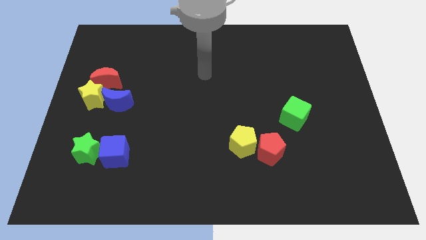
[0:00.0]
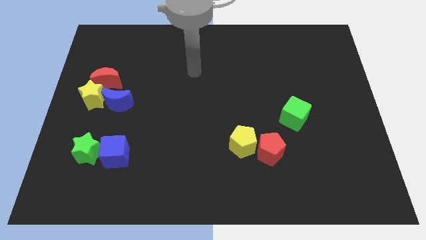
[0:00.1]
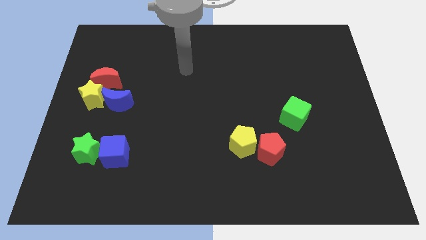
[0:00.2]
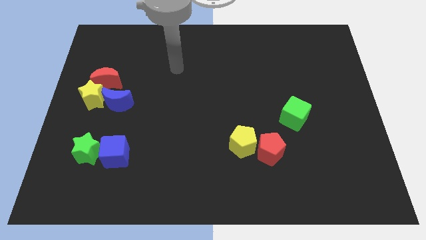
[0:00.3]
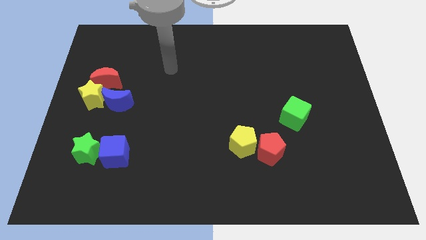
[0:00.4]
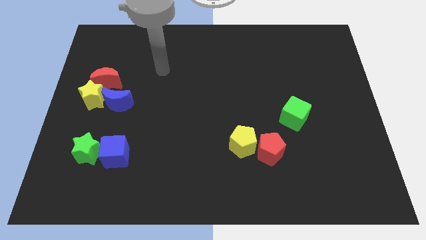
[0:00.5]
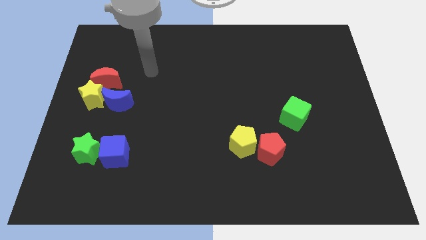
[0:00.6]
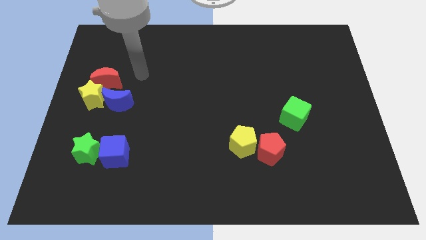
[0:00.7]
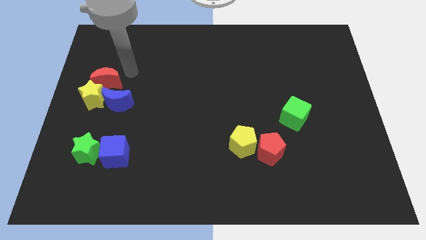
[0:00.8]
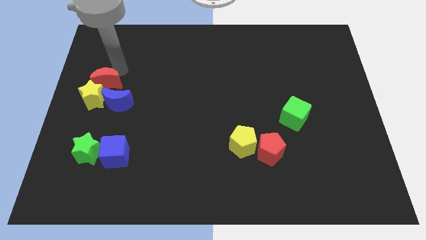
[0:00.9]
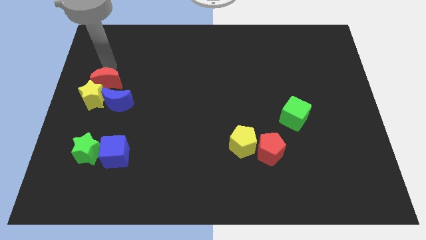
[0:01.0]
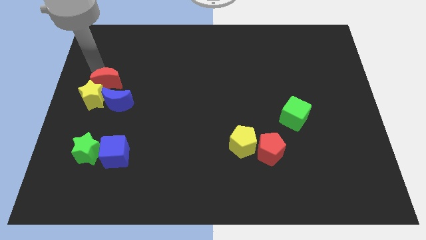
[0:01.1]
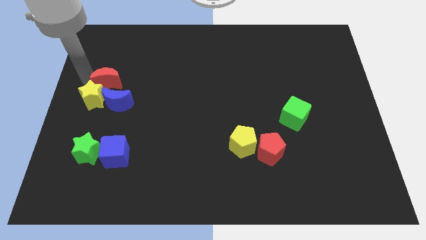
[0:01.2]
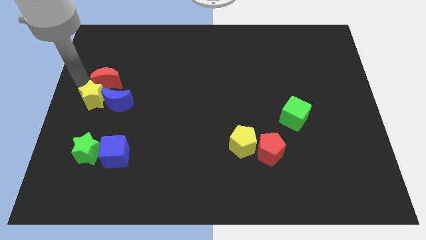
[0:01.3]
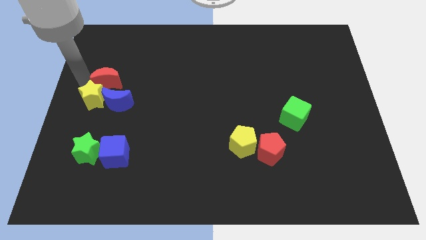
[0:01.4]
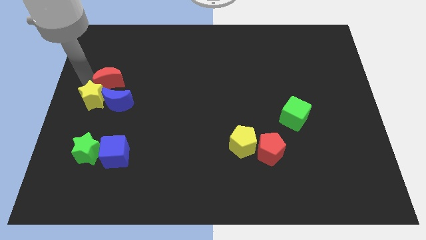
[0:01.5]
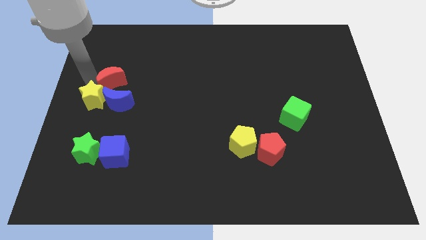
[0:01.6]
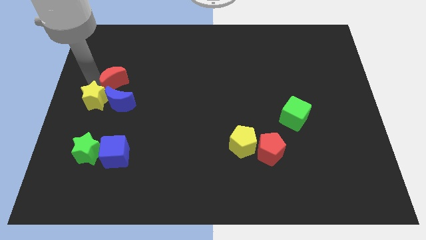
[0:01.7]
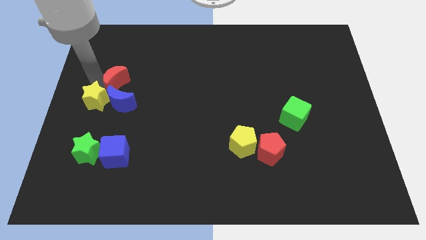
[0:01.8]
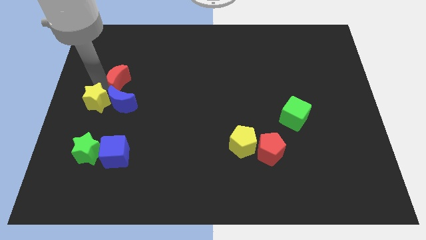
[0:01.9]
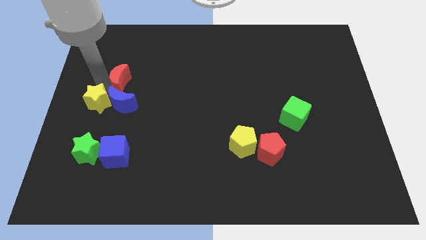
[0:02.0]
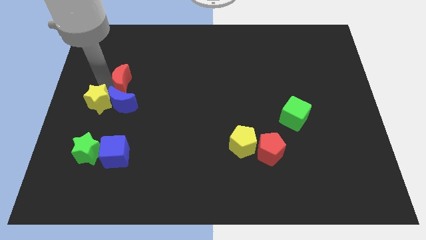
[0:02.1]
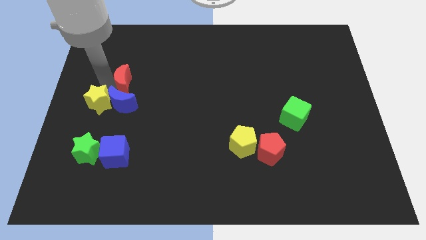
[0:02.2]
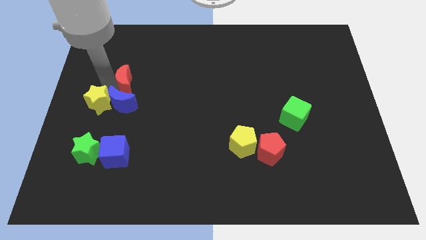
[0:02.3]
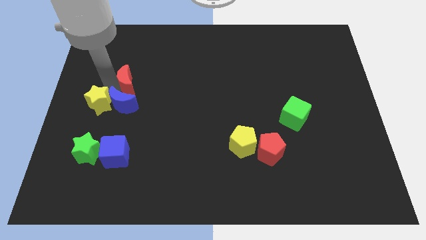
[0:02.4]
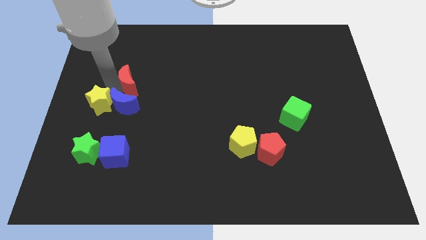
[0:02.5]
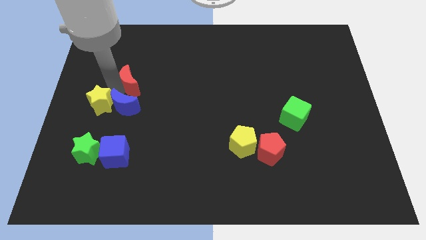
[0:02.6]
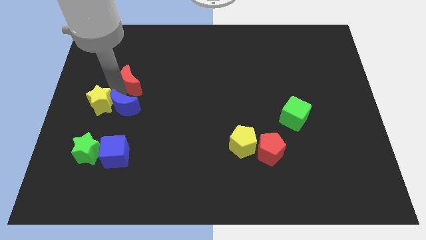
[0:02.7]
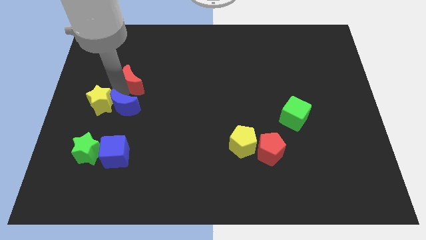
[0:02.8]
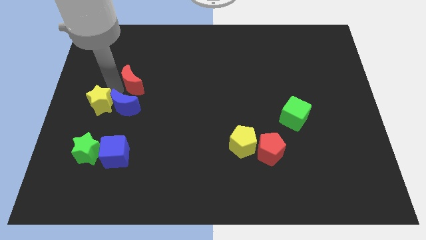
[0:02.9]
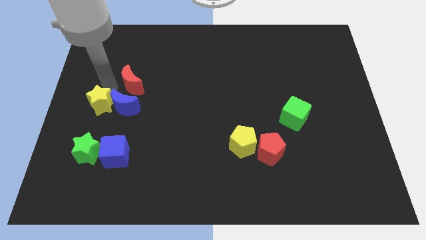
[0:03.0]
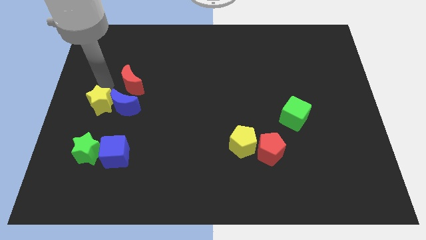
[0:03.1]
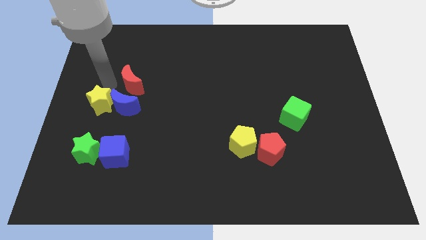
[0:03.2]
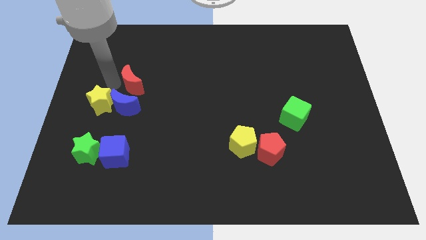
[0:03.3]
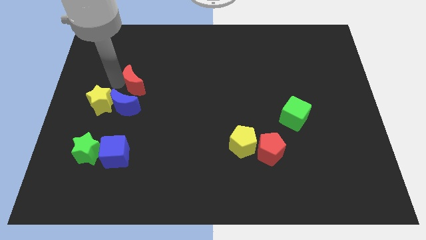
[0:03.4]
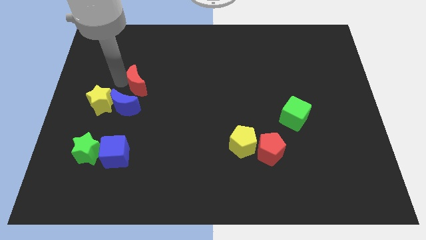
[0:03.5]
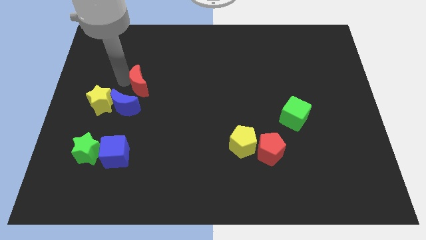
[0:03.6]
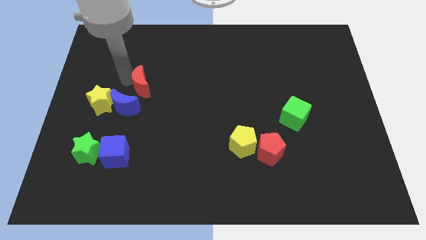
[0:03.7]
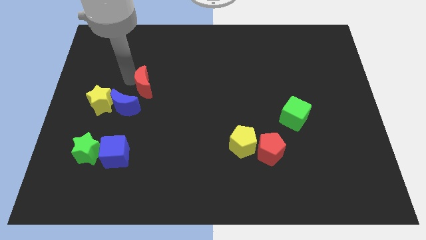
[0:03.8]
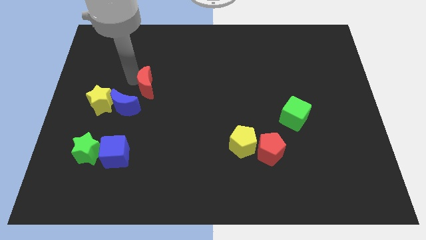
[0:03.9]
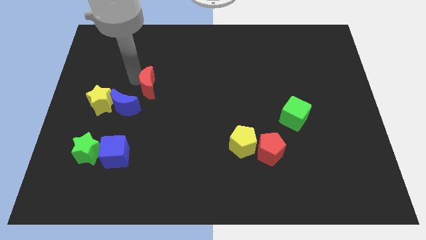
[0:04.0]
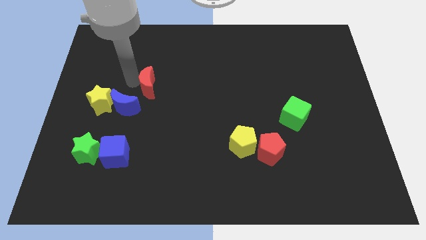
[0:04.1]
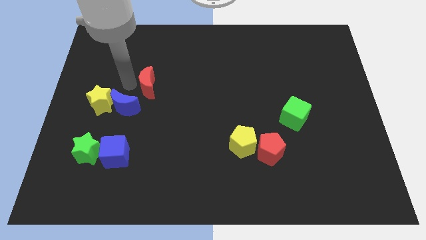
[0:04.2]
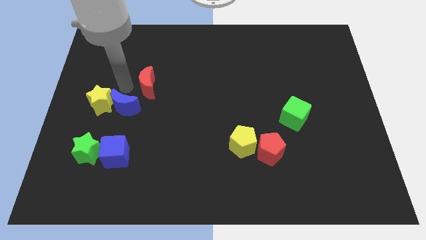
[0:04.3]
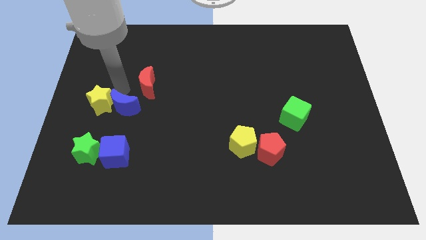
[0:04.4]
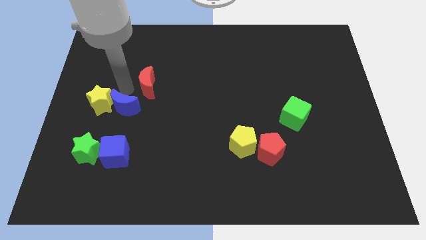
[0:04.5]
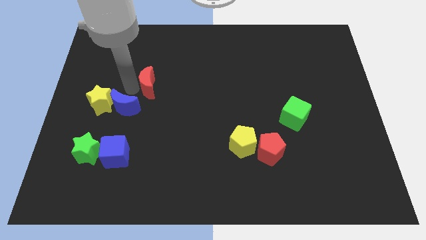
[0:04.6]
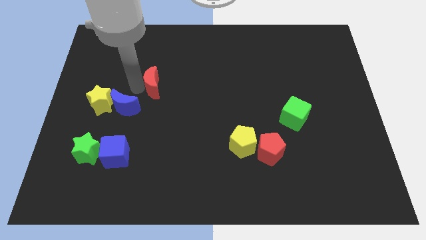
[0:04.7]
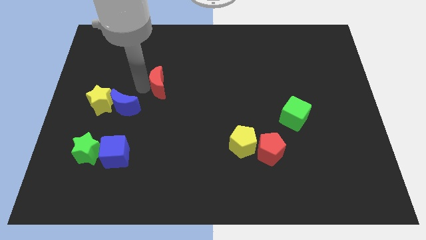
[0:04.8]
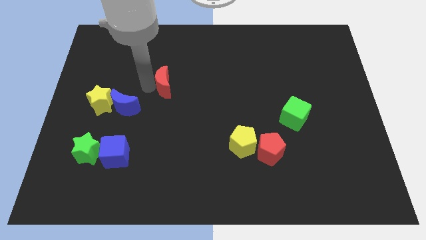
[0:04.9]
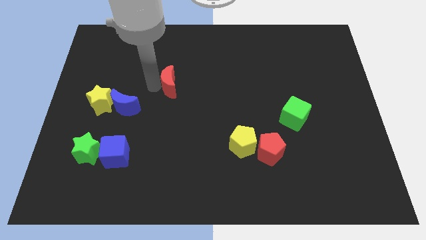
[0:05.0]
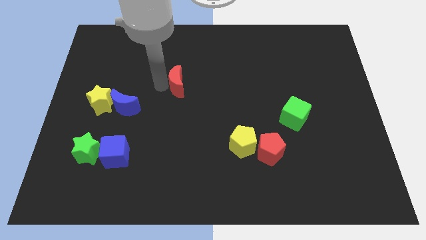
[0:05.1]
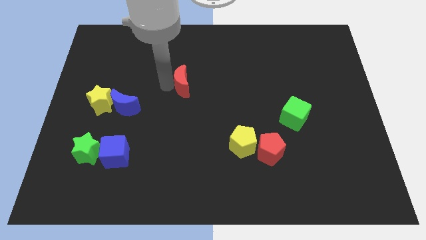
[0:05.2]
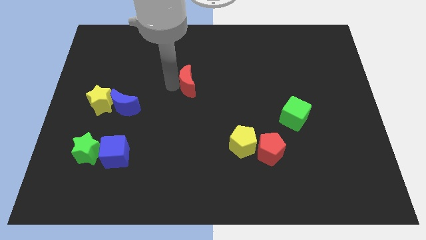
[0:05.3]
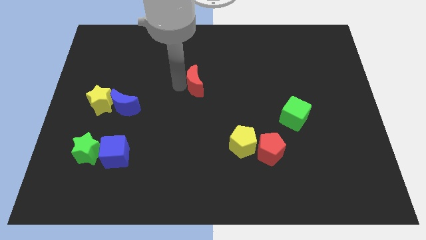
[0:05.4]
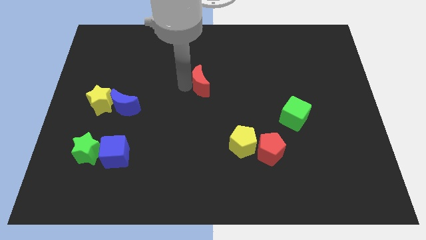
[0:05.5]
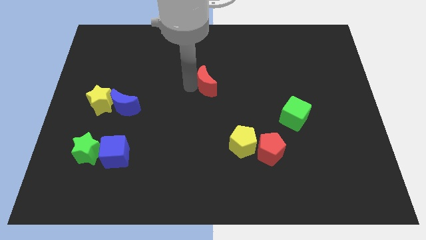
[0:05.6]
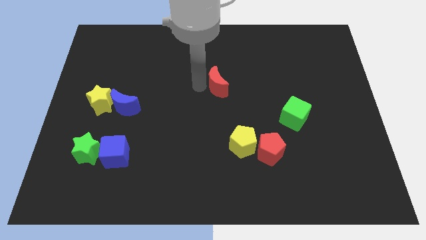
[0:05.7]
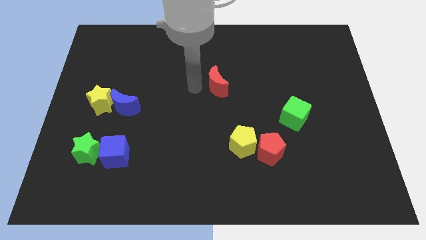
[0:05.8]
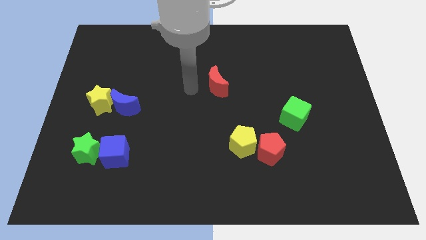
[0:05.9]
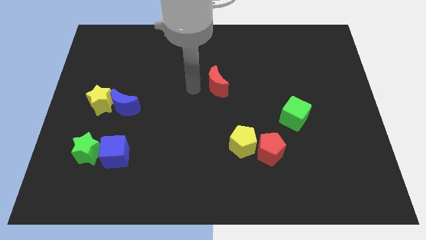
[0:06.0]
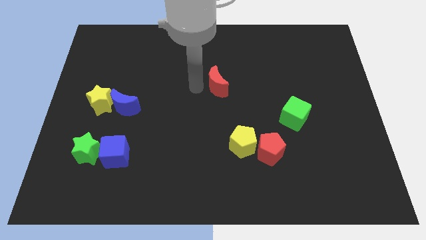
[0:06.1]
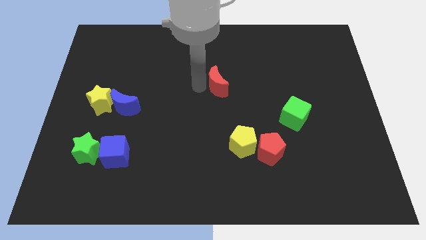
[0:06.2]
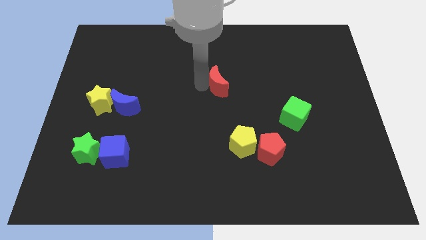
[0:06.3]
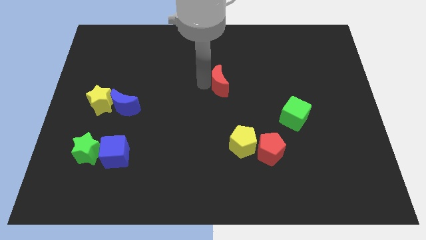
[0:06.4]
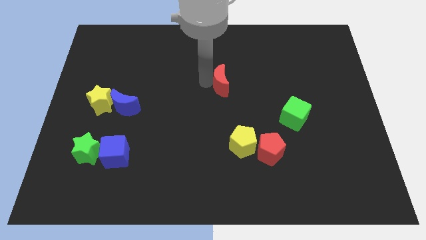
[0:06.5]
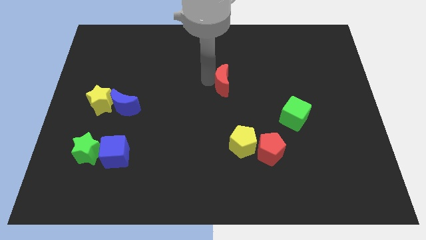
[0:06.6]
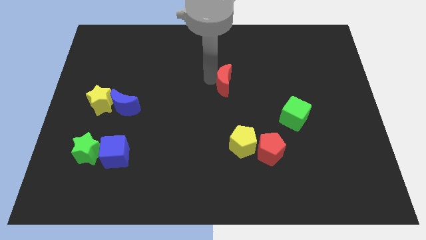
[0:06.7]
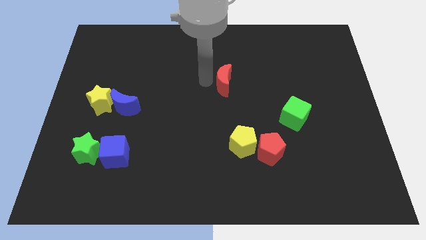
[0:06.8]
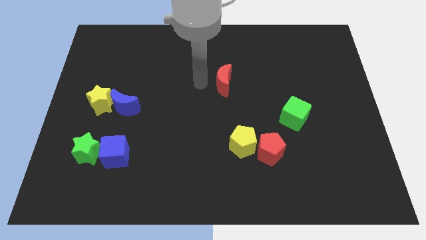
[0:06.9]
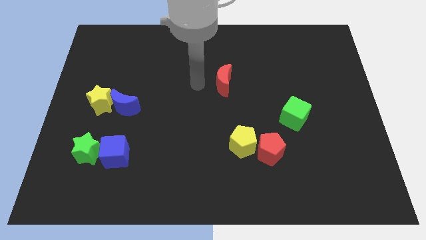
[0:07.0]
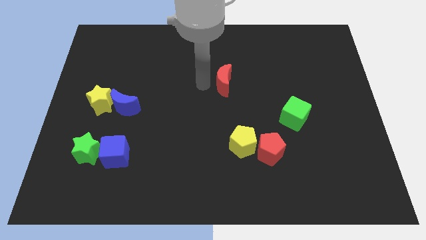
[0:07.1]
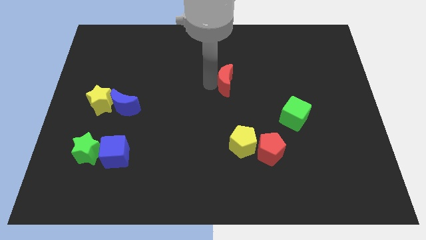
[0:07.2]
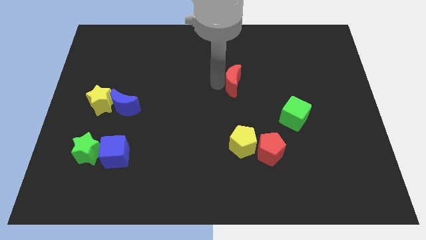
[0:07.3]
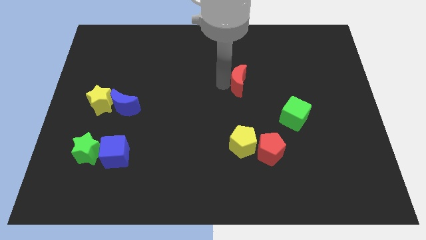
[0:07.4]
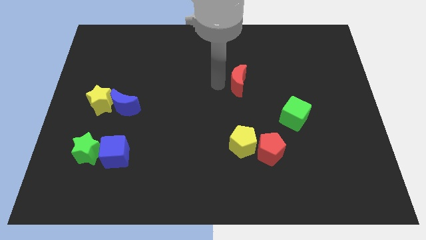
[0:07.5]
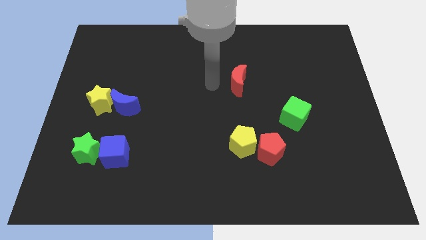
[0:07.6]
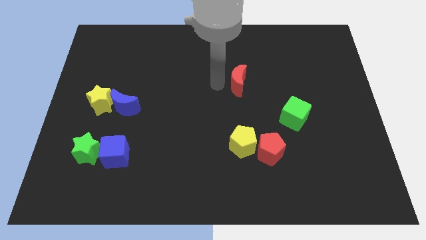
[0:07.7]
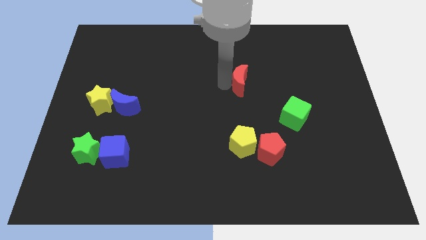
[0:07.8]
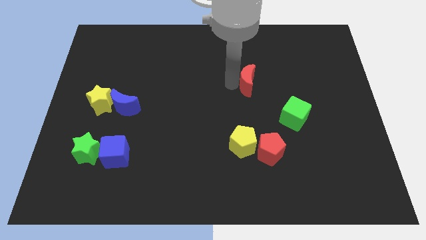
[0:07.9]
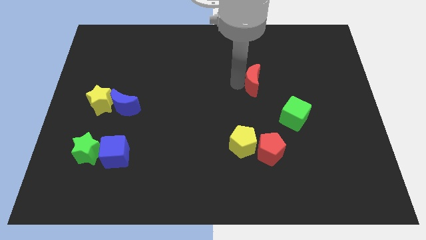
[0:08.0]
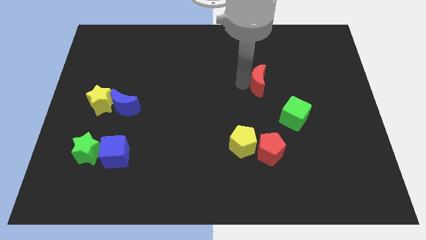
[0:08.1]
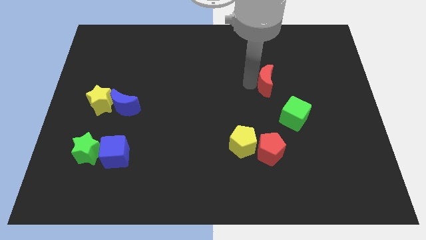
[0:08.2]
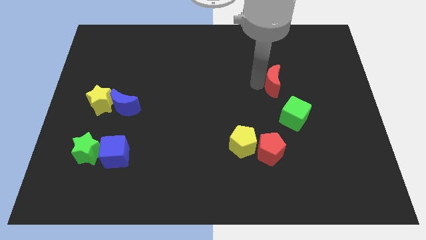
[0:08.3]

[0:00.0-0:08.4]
slide the red moon to the top of the green cube
